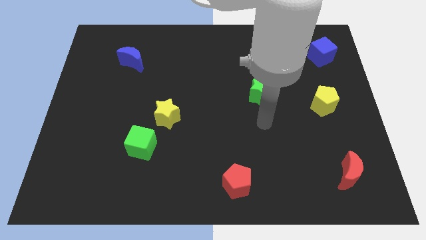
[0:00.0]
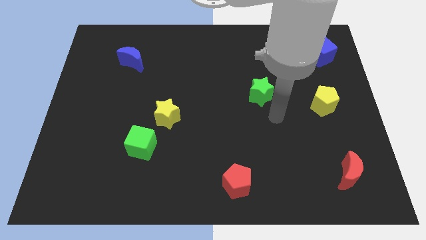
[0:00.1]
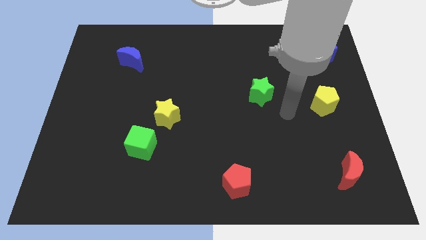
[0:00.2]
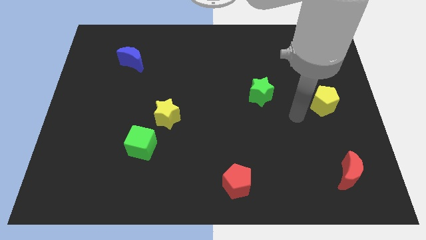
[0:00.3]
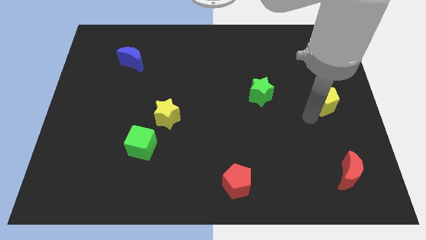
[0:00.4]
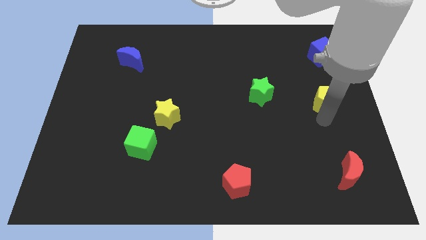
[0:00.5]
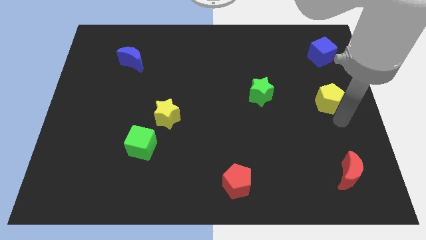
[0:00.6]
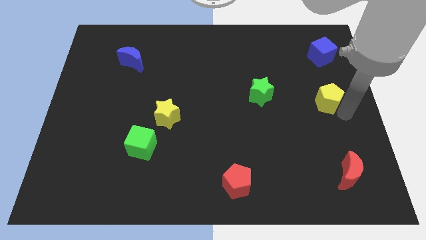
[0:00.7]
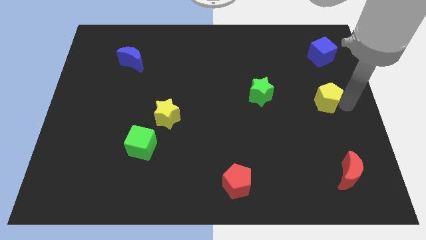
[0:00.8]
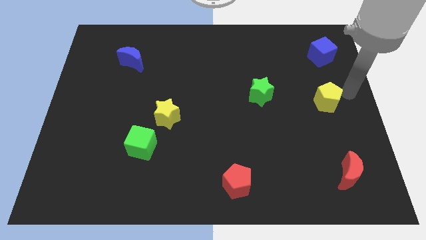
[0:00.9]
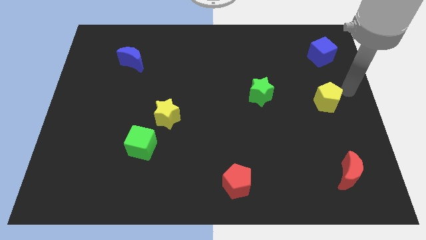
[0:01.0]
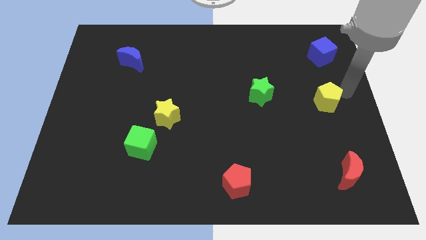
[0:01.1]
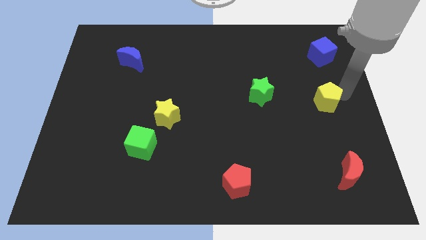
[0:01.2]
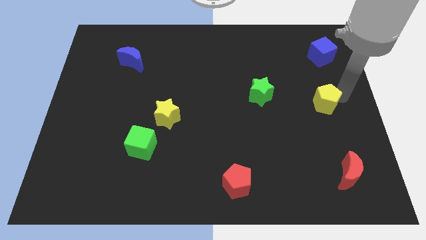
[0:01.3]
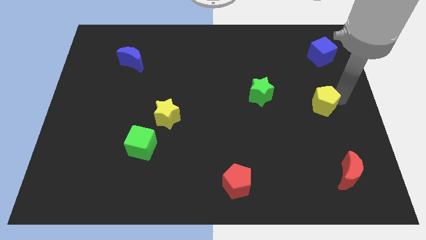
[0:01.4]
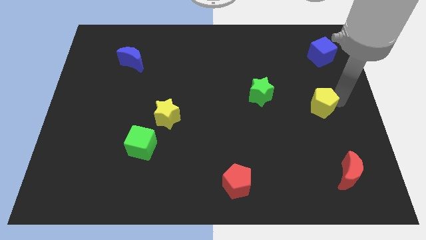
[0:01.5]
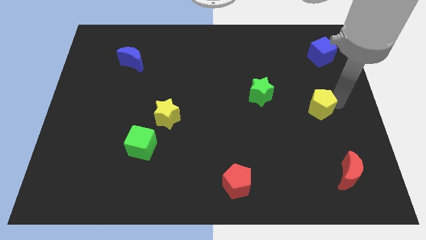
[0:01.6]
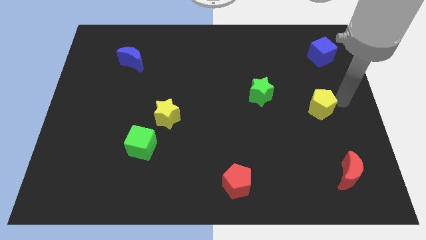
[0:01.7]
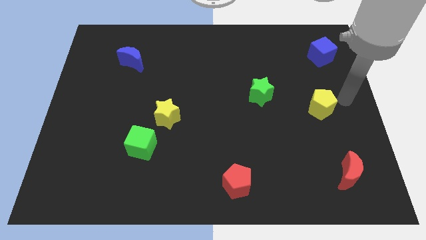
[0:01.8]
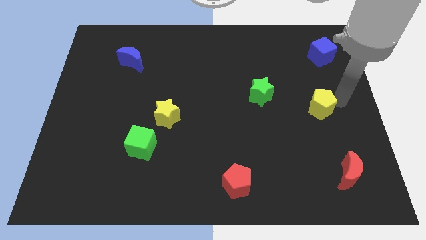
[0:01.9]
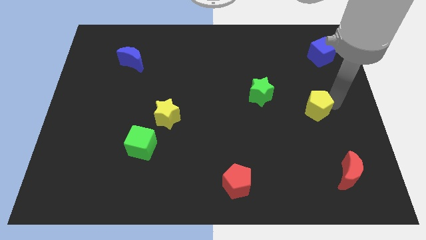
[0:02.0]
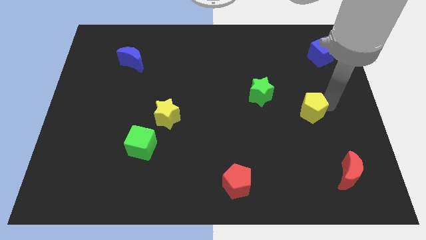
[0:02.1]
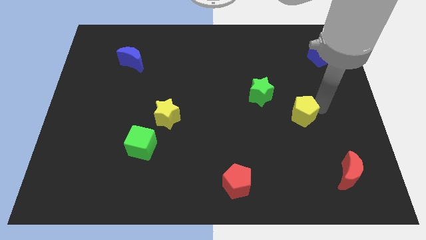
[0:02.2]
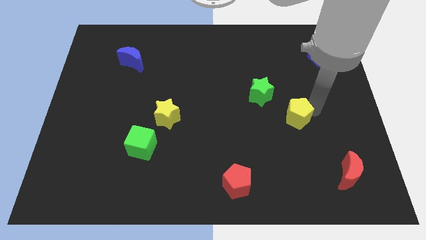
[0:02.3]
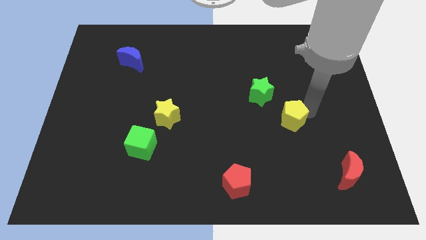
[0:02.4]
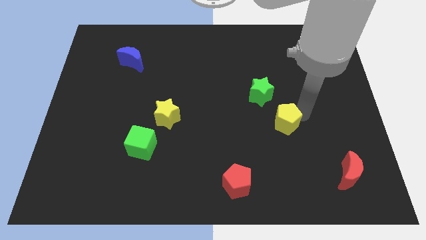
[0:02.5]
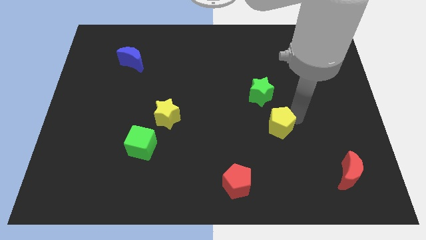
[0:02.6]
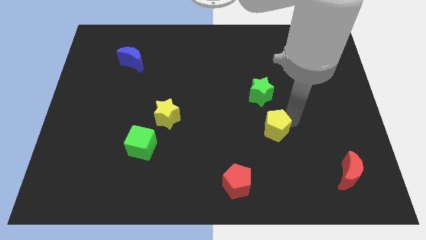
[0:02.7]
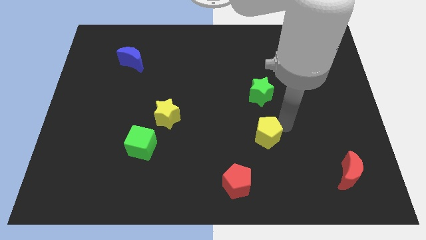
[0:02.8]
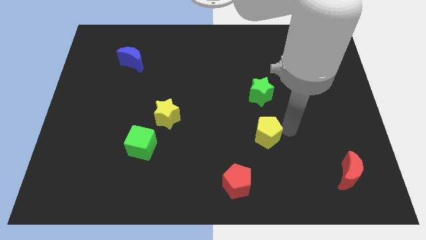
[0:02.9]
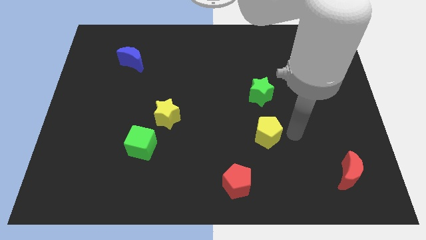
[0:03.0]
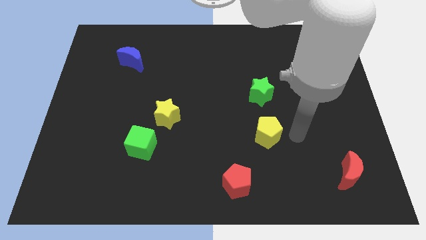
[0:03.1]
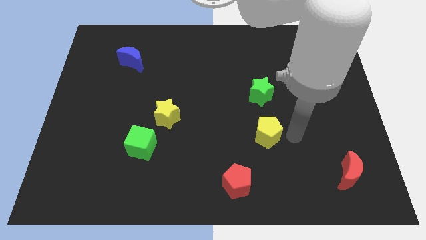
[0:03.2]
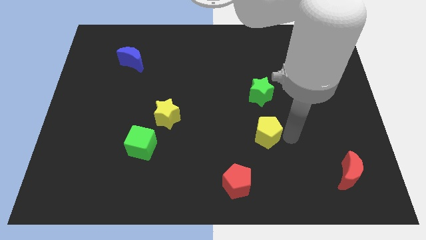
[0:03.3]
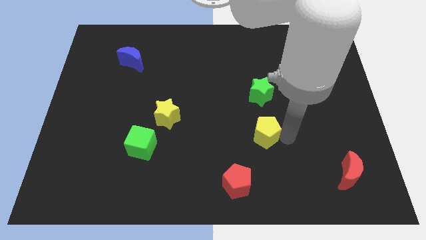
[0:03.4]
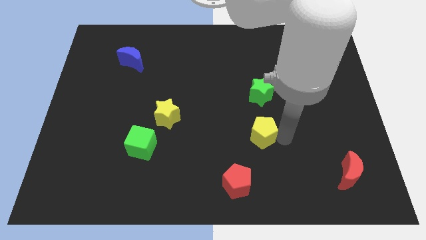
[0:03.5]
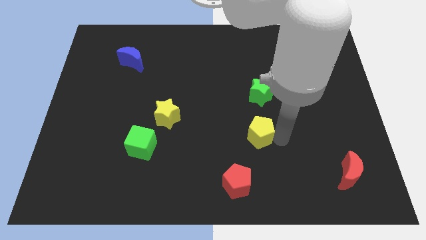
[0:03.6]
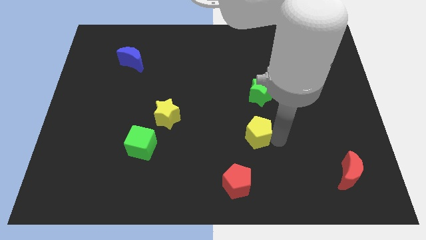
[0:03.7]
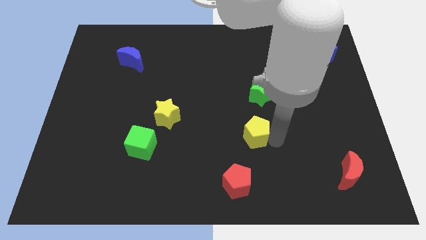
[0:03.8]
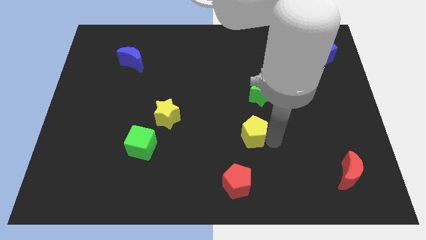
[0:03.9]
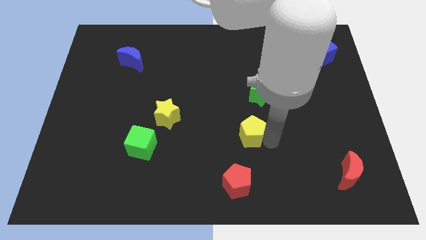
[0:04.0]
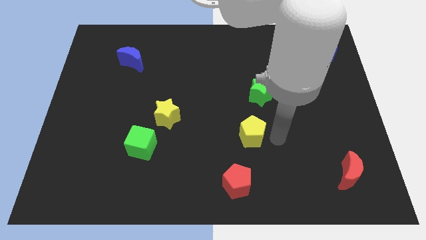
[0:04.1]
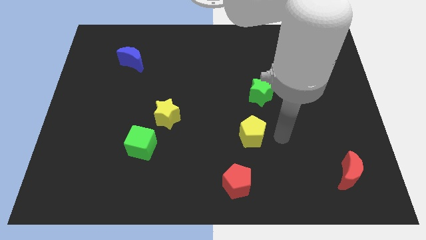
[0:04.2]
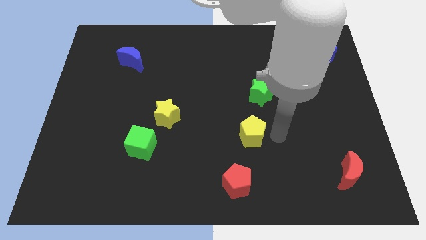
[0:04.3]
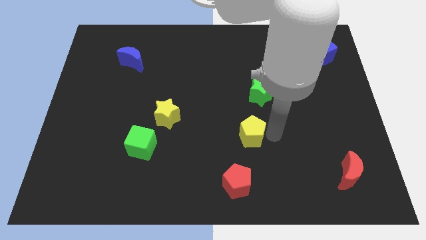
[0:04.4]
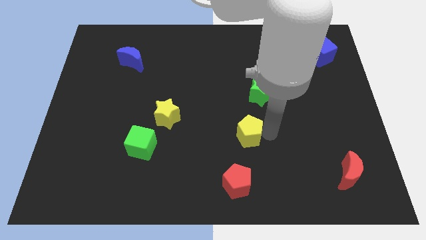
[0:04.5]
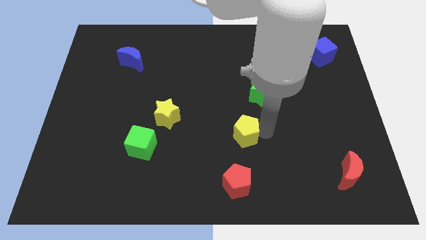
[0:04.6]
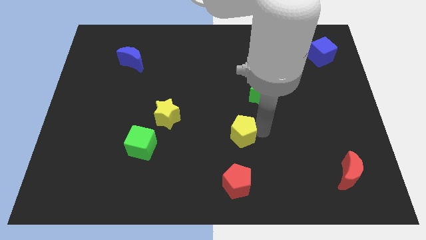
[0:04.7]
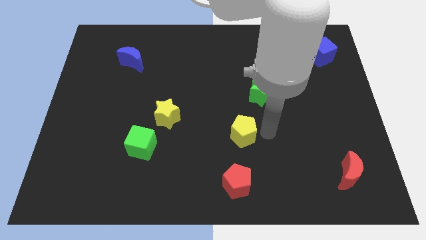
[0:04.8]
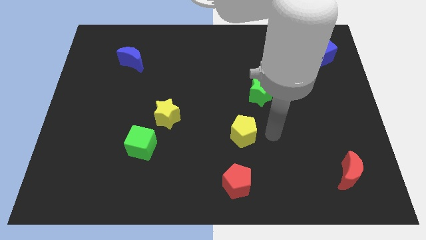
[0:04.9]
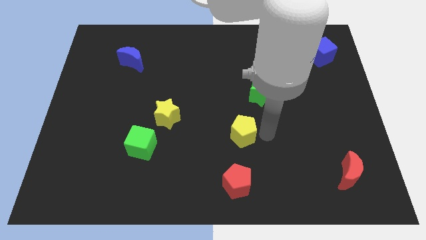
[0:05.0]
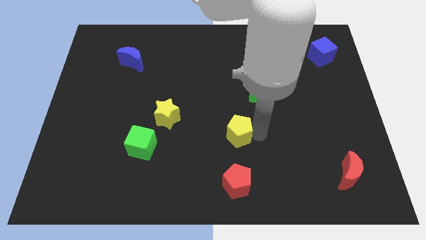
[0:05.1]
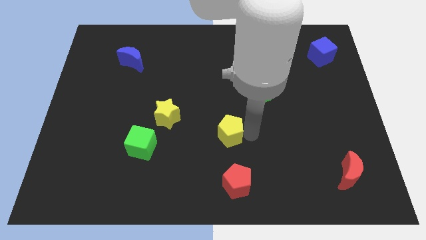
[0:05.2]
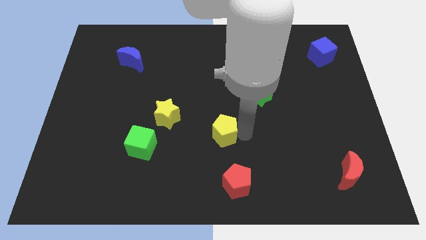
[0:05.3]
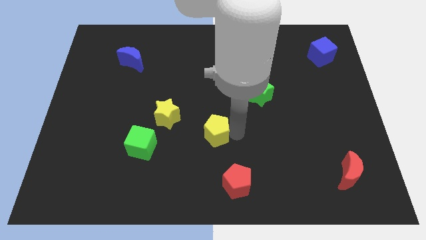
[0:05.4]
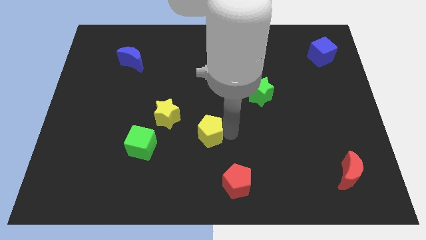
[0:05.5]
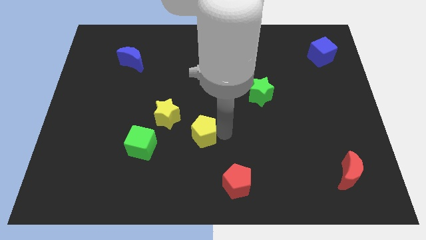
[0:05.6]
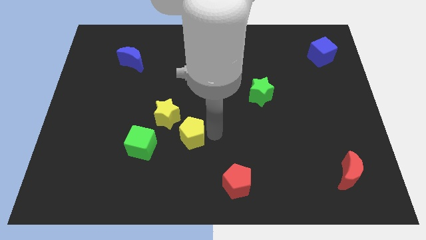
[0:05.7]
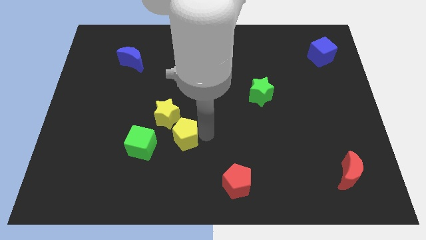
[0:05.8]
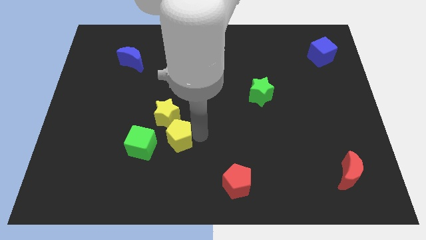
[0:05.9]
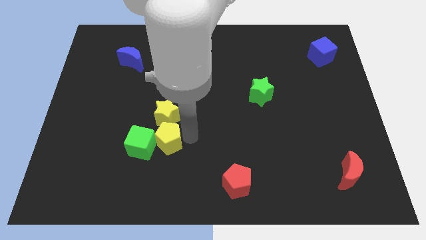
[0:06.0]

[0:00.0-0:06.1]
push the yellow pentagon to the green cube

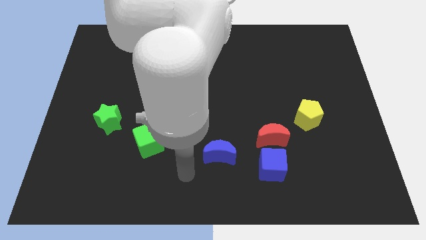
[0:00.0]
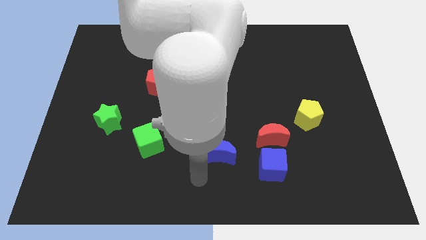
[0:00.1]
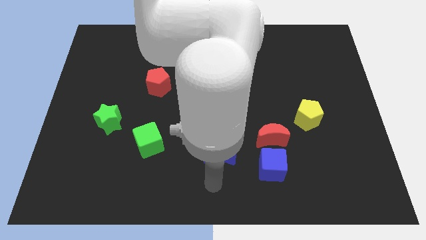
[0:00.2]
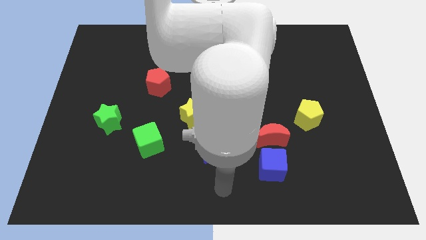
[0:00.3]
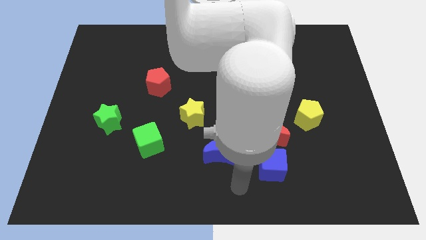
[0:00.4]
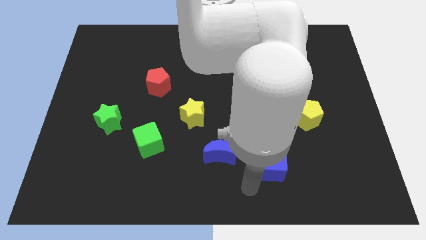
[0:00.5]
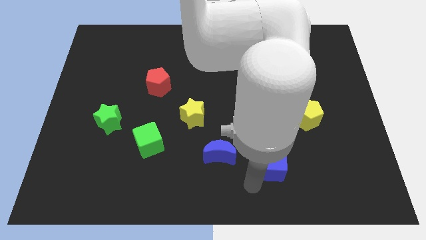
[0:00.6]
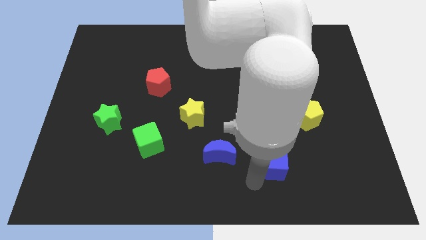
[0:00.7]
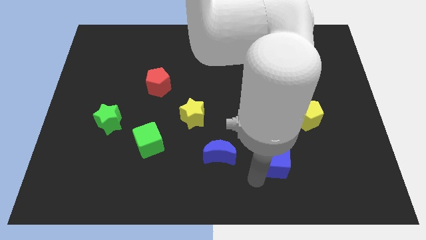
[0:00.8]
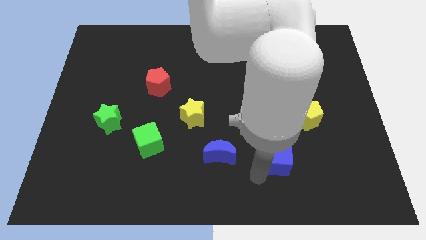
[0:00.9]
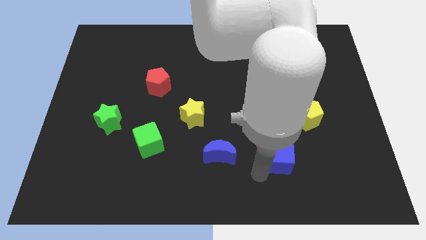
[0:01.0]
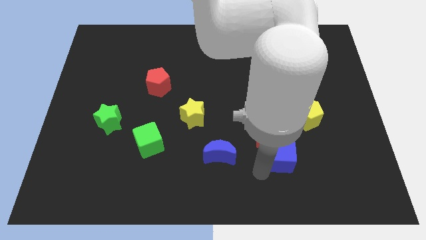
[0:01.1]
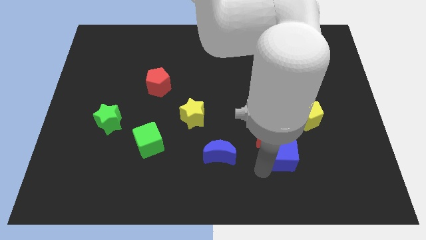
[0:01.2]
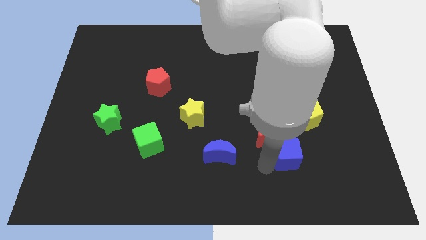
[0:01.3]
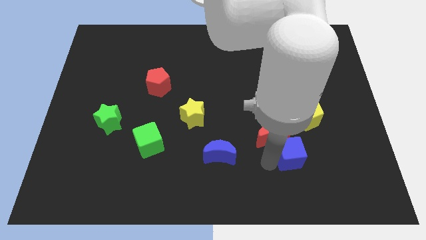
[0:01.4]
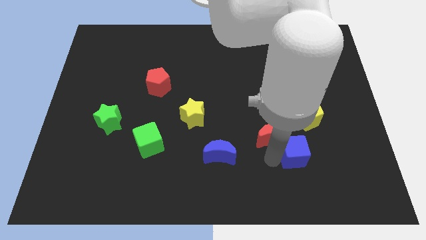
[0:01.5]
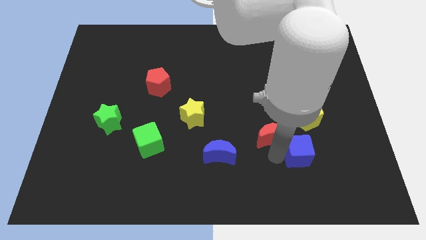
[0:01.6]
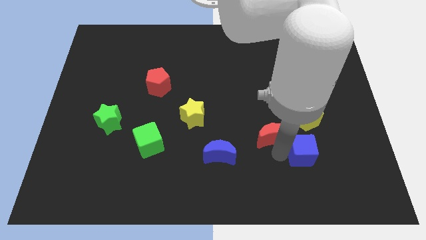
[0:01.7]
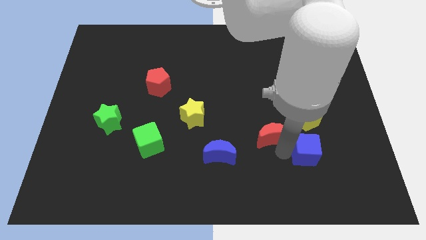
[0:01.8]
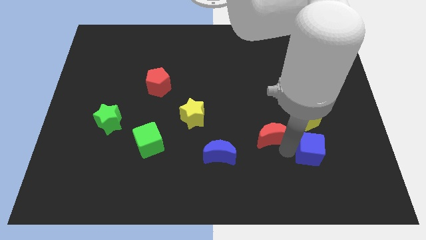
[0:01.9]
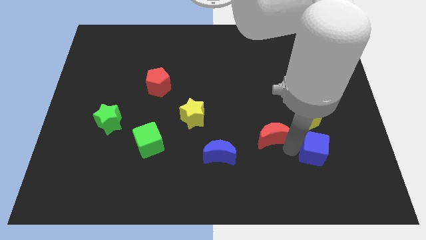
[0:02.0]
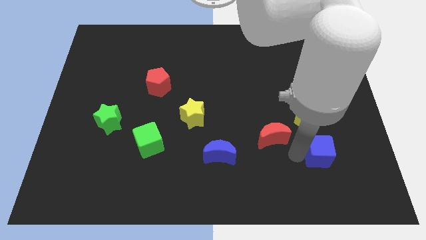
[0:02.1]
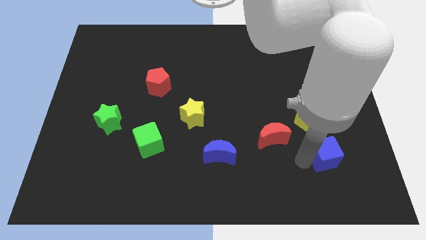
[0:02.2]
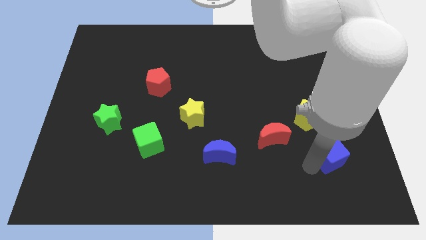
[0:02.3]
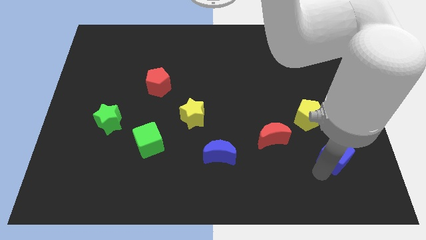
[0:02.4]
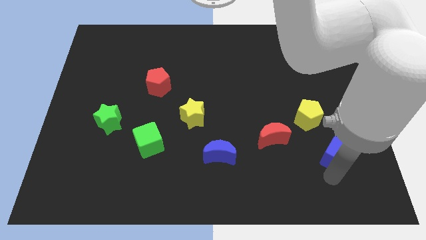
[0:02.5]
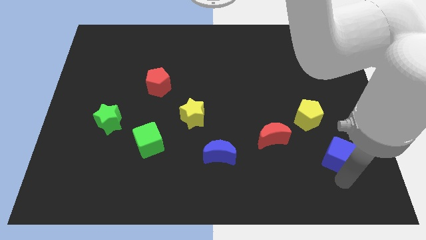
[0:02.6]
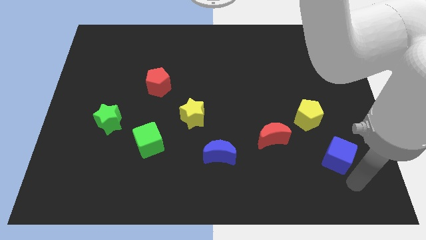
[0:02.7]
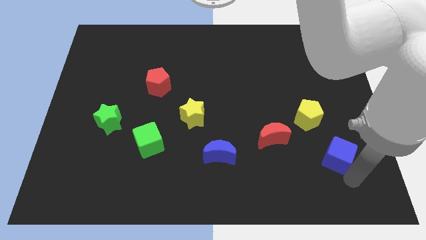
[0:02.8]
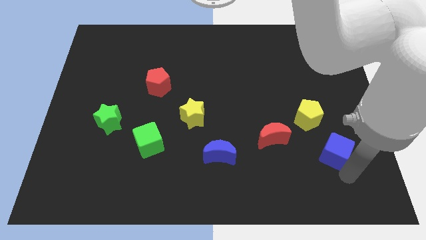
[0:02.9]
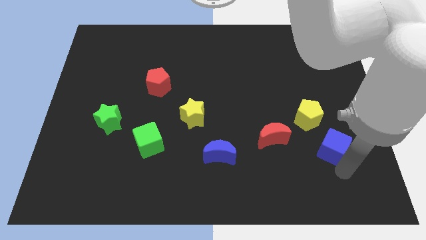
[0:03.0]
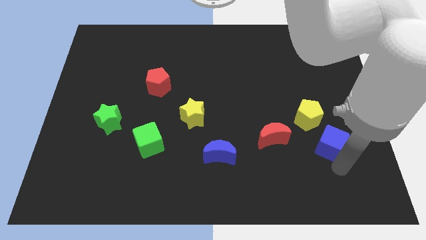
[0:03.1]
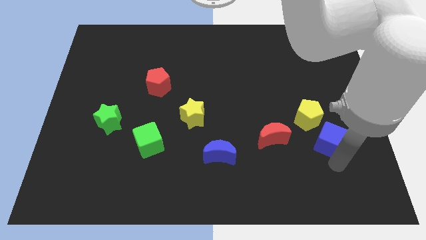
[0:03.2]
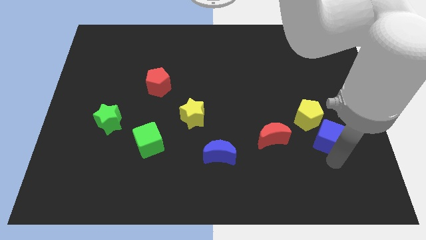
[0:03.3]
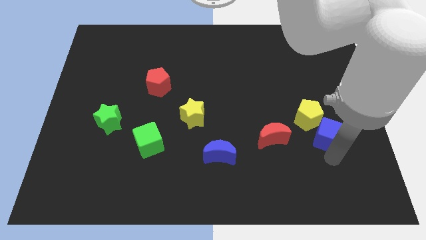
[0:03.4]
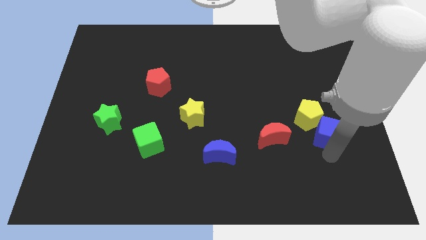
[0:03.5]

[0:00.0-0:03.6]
move the blue cube close to the yellow pentagon
